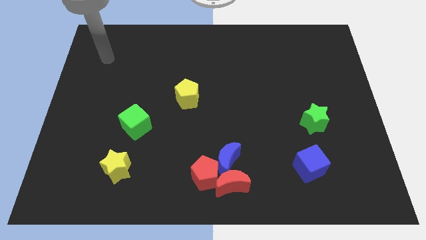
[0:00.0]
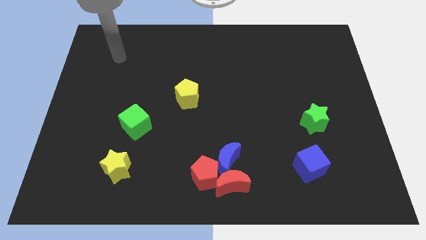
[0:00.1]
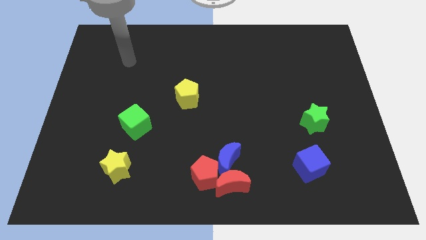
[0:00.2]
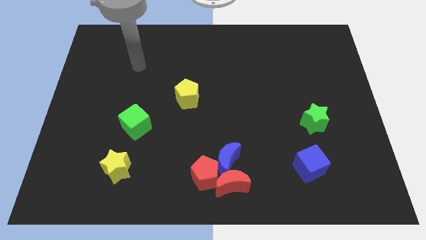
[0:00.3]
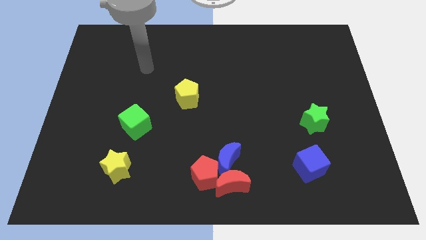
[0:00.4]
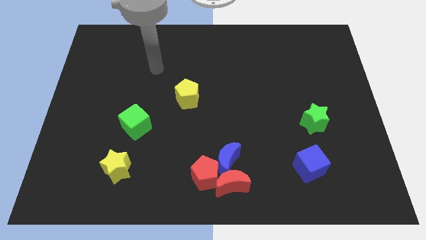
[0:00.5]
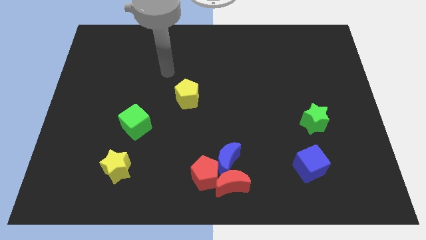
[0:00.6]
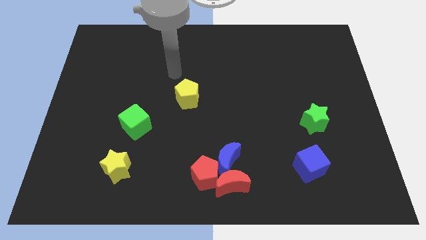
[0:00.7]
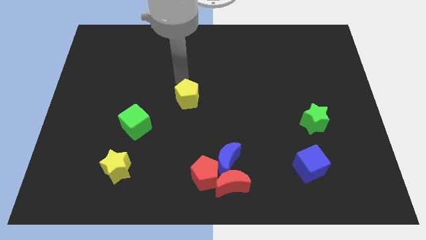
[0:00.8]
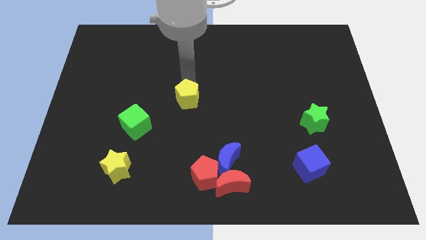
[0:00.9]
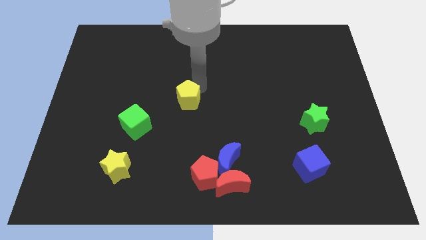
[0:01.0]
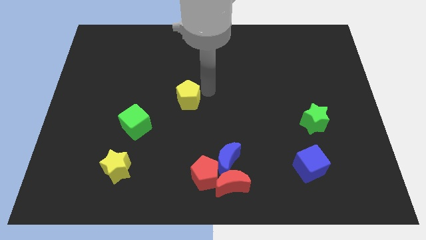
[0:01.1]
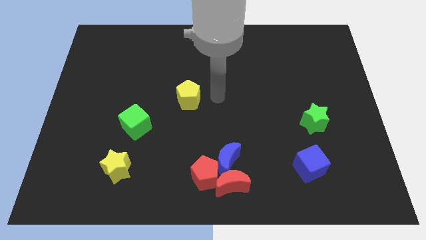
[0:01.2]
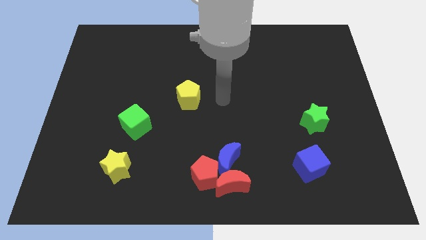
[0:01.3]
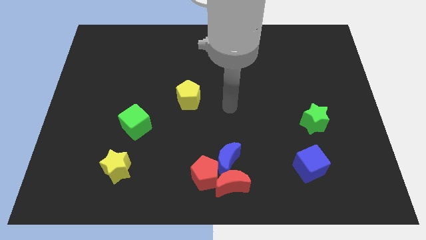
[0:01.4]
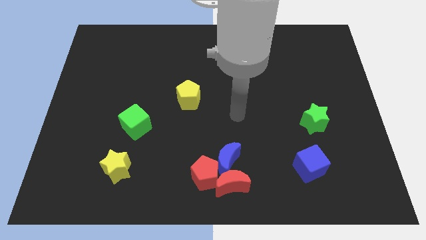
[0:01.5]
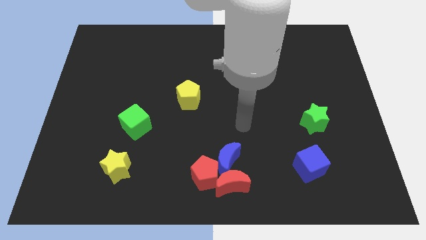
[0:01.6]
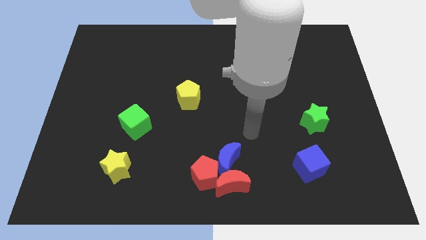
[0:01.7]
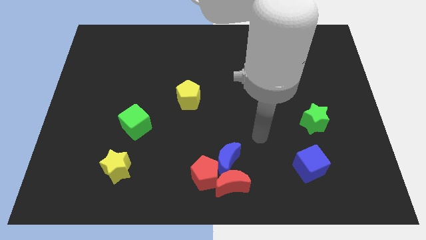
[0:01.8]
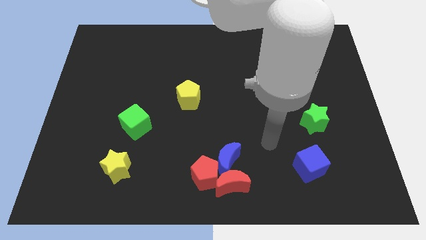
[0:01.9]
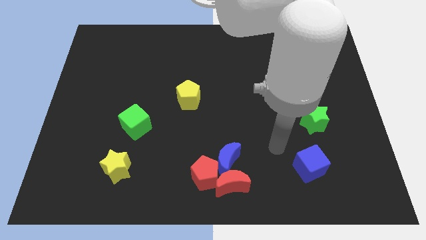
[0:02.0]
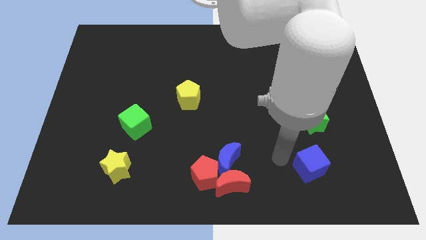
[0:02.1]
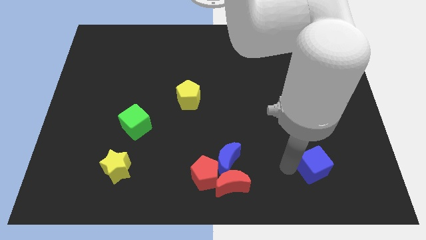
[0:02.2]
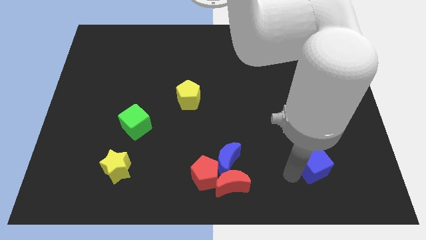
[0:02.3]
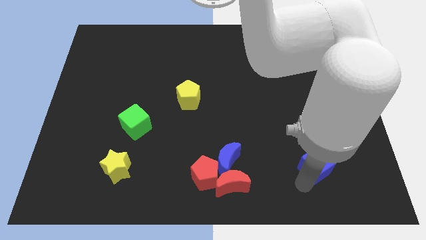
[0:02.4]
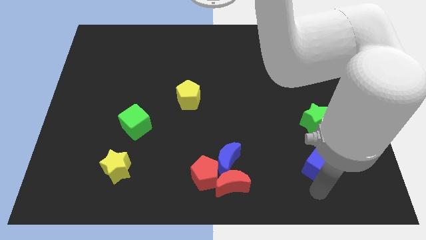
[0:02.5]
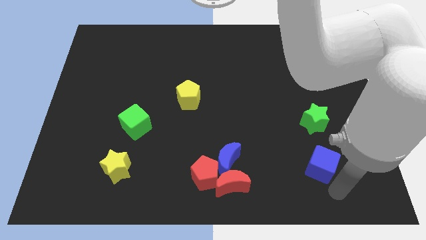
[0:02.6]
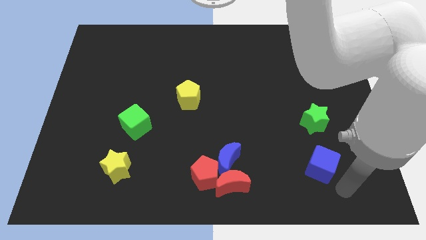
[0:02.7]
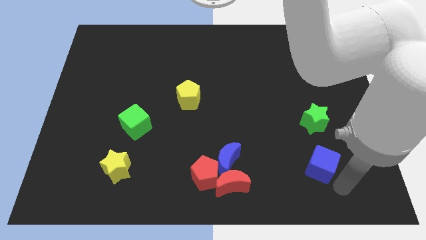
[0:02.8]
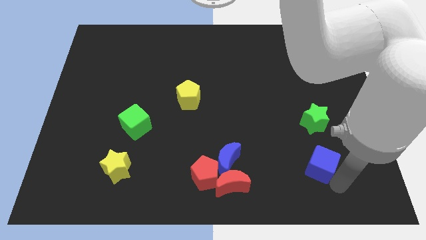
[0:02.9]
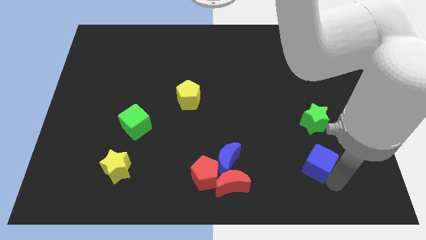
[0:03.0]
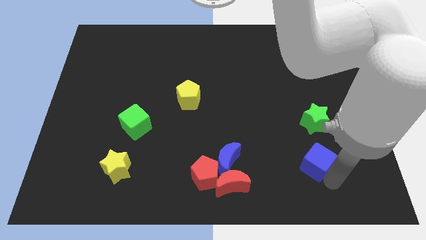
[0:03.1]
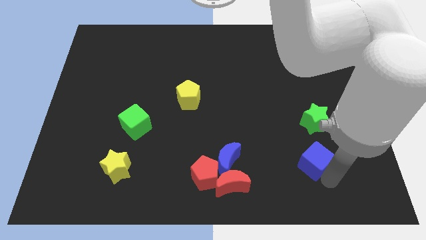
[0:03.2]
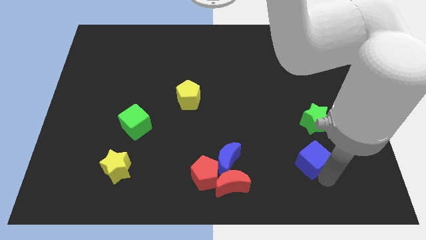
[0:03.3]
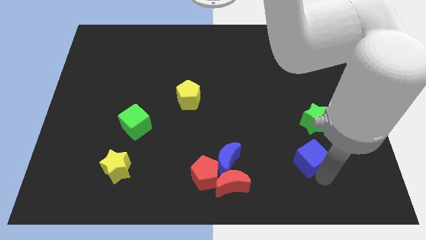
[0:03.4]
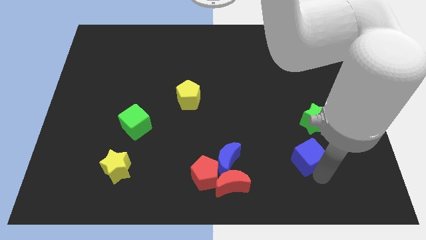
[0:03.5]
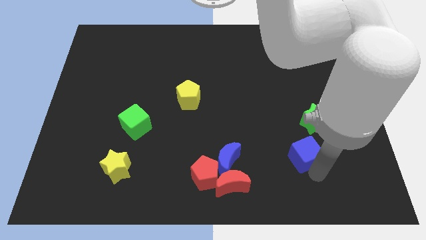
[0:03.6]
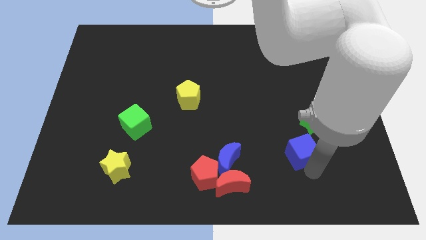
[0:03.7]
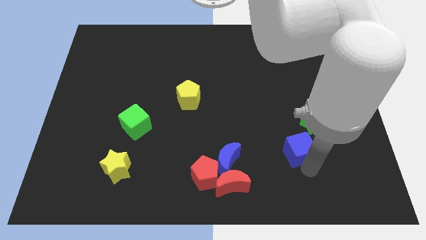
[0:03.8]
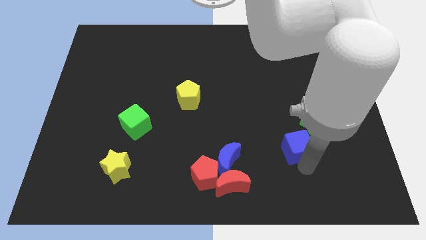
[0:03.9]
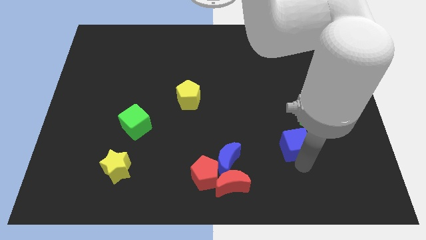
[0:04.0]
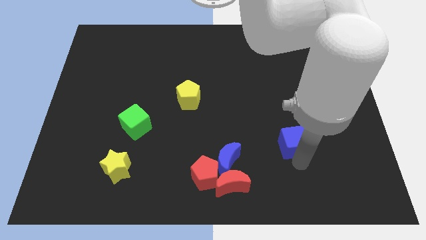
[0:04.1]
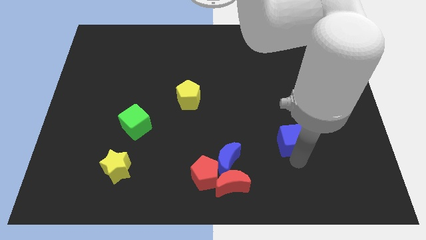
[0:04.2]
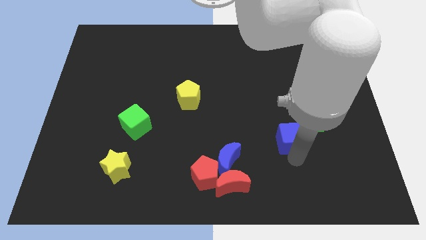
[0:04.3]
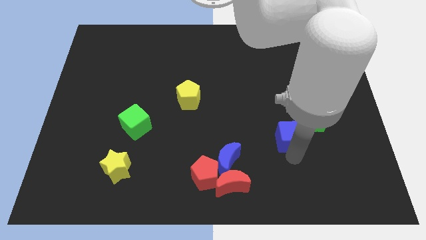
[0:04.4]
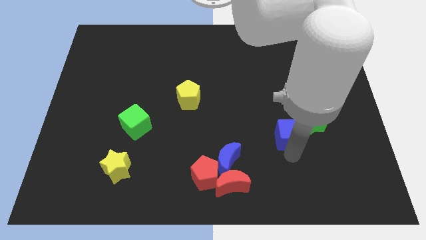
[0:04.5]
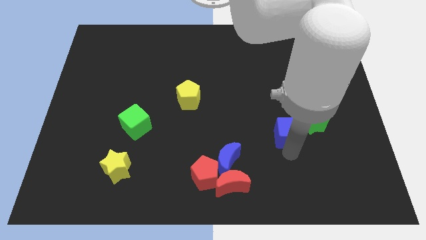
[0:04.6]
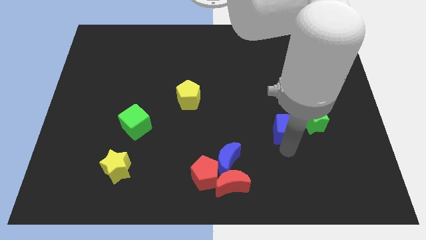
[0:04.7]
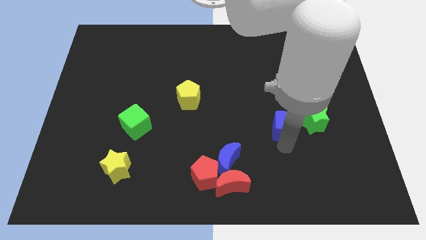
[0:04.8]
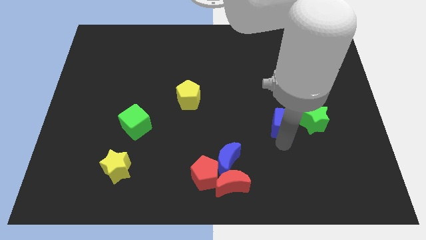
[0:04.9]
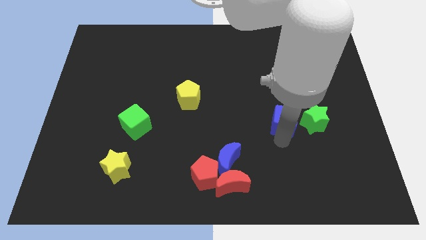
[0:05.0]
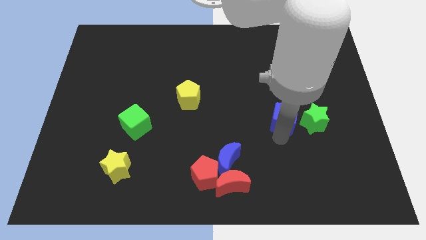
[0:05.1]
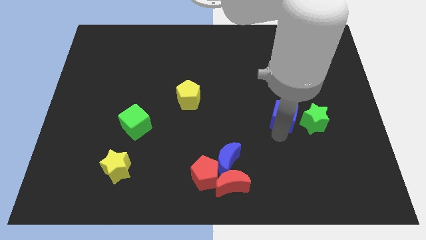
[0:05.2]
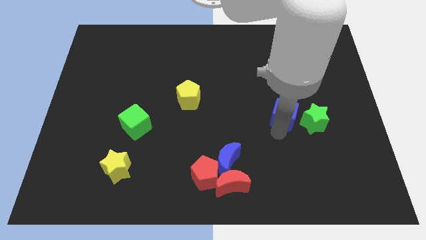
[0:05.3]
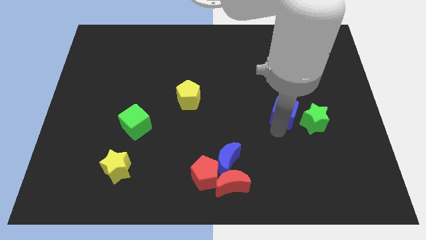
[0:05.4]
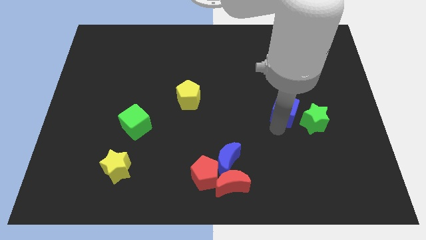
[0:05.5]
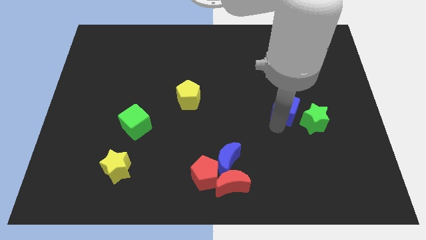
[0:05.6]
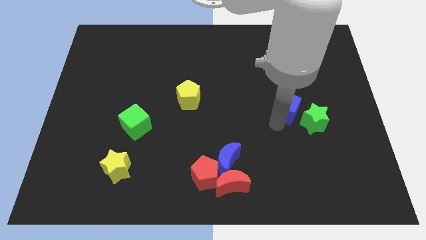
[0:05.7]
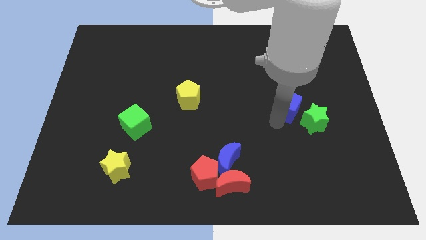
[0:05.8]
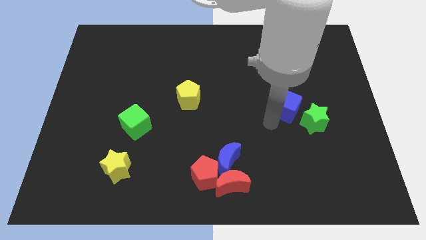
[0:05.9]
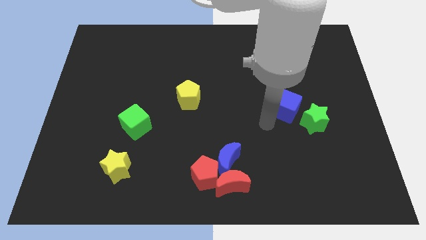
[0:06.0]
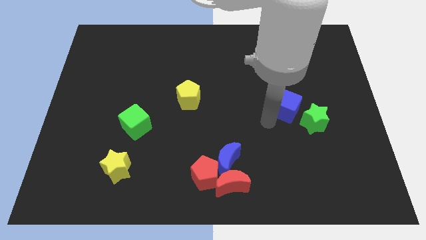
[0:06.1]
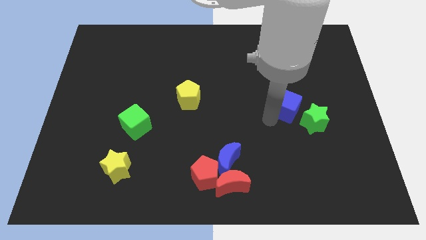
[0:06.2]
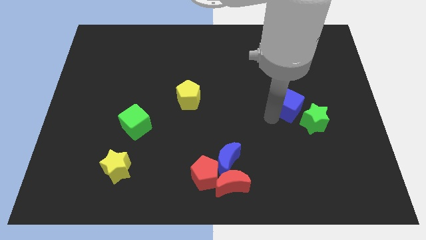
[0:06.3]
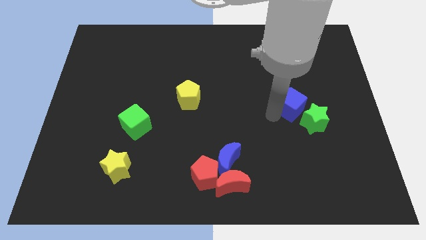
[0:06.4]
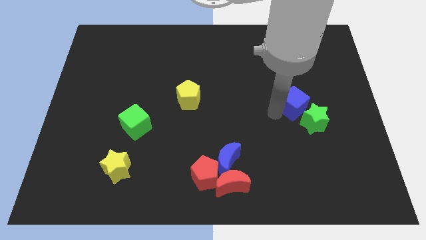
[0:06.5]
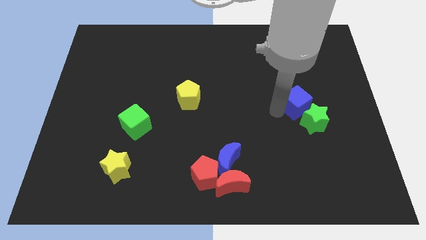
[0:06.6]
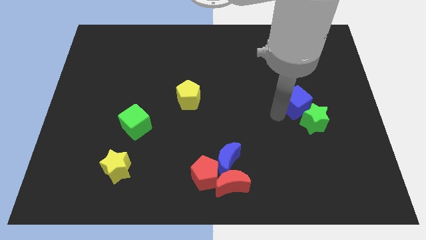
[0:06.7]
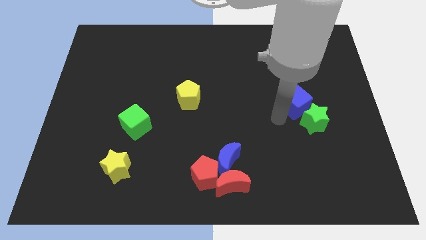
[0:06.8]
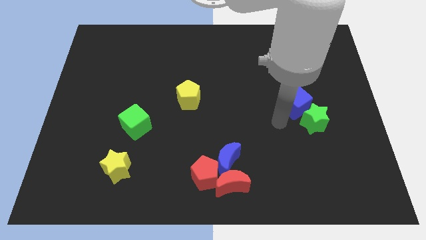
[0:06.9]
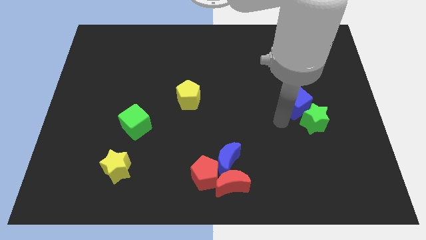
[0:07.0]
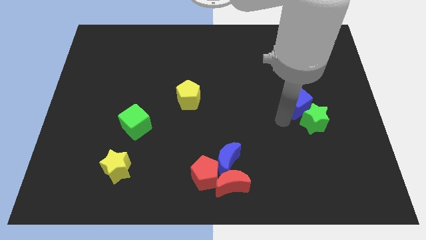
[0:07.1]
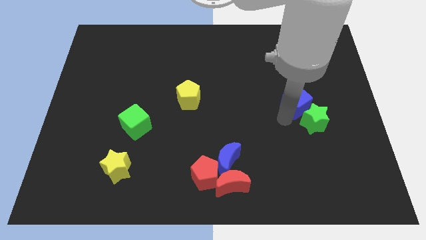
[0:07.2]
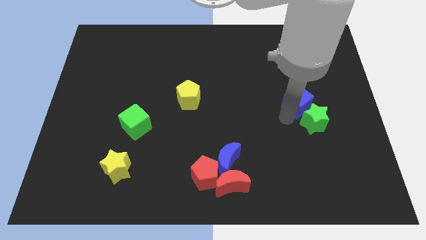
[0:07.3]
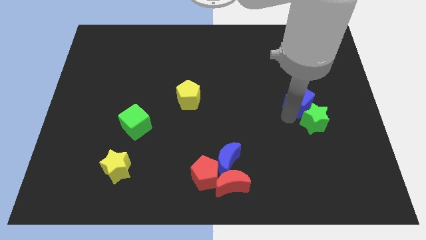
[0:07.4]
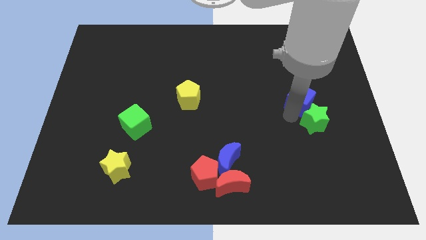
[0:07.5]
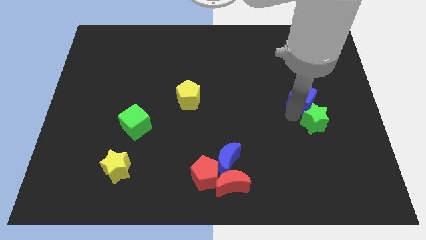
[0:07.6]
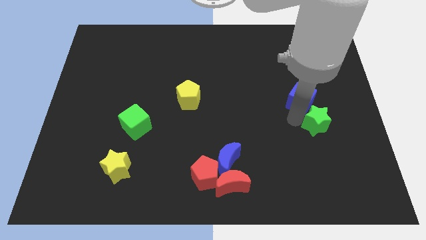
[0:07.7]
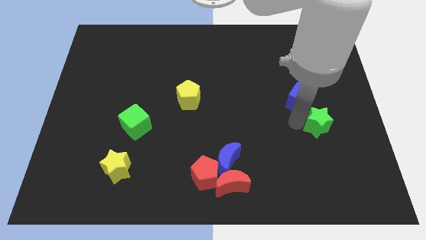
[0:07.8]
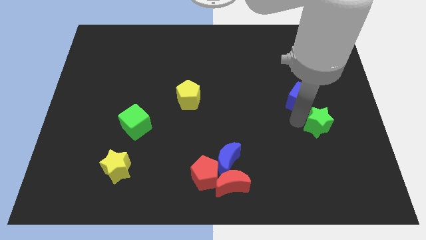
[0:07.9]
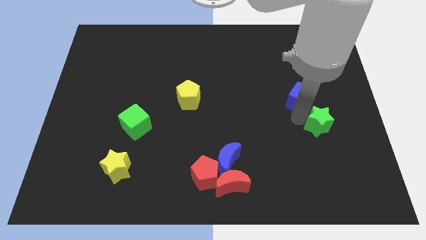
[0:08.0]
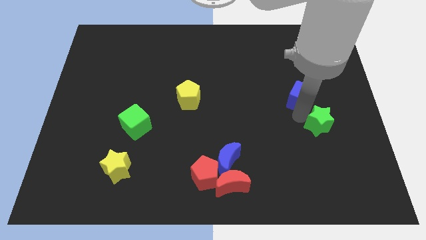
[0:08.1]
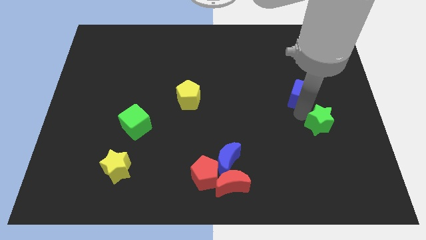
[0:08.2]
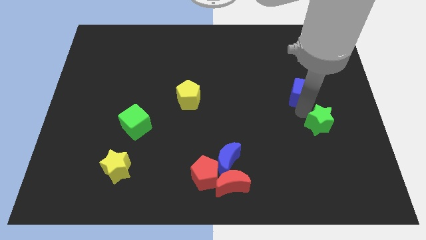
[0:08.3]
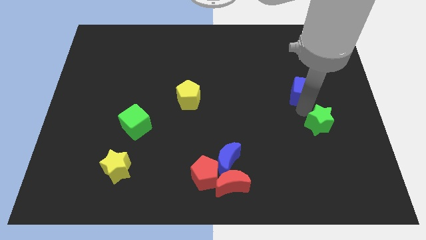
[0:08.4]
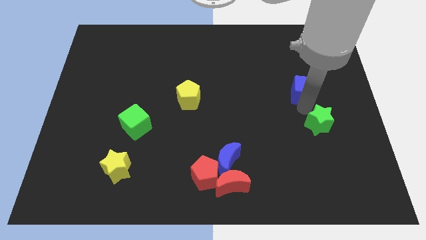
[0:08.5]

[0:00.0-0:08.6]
move the blue cube upwards
